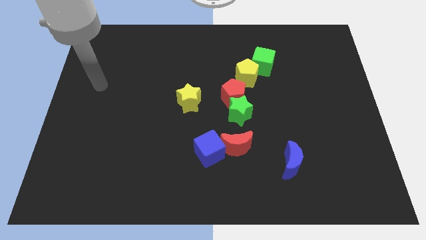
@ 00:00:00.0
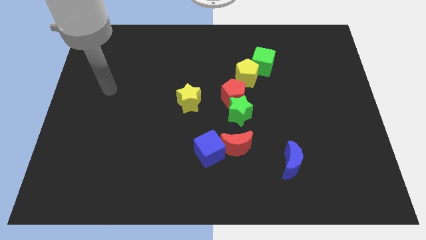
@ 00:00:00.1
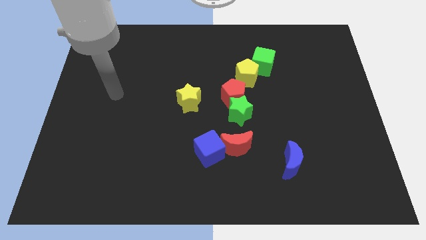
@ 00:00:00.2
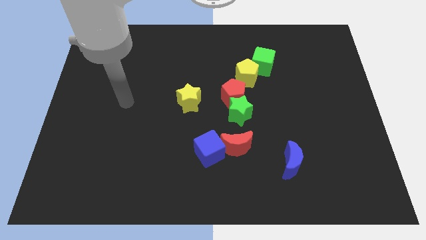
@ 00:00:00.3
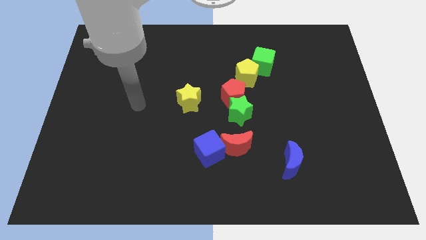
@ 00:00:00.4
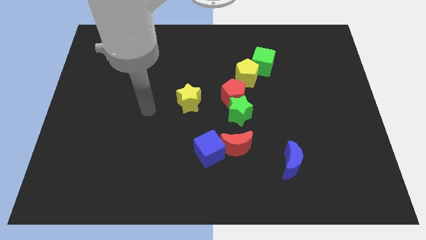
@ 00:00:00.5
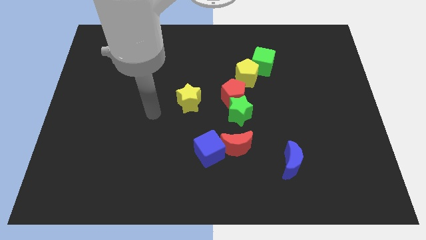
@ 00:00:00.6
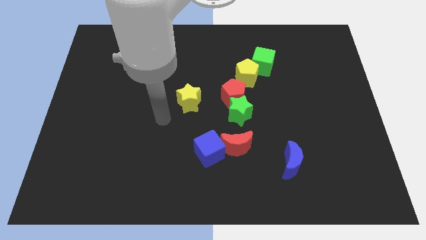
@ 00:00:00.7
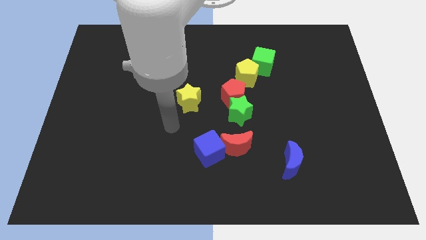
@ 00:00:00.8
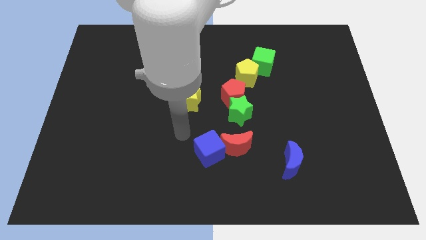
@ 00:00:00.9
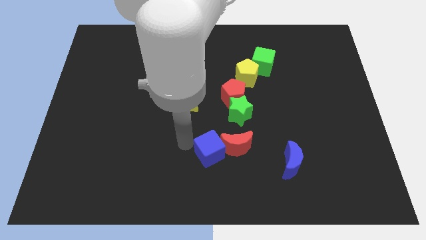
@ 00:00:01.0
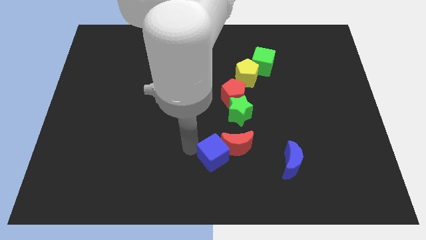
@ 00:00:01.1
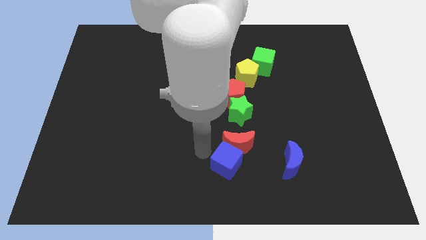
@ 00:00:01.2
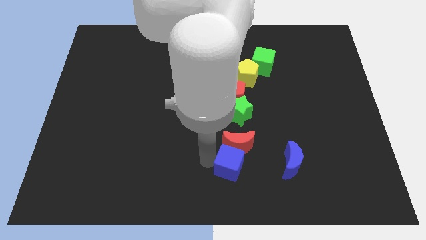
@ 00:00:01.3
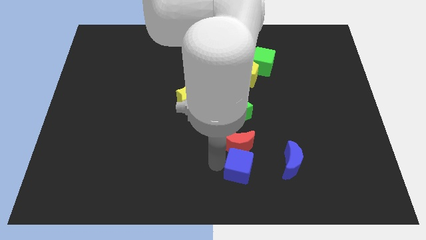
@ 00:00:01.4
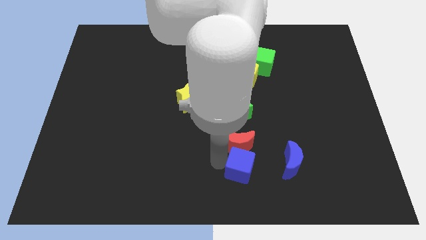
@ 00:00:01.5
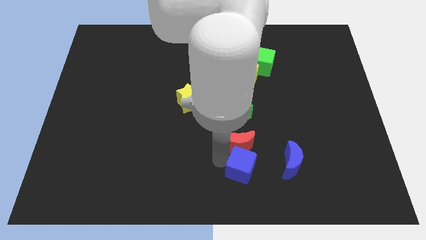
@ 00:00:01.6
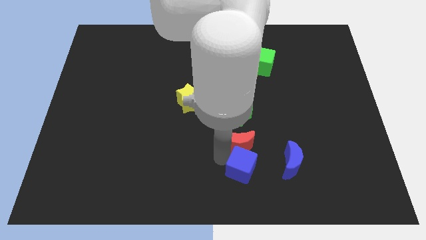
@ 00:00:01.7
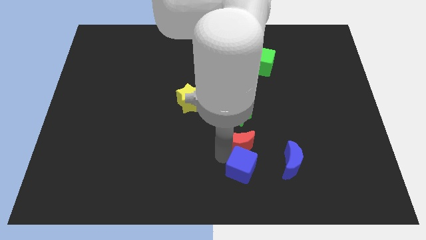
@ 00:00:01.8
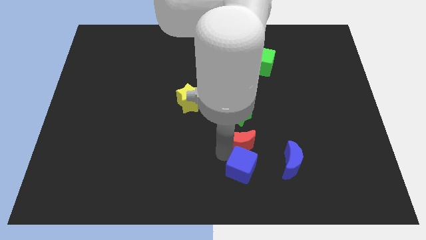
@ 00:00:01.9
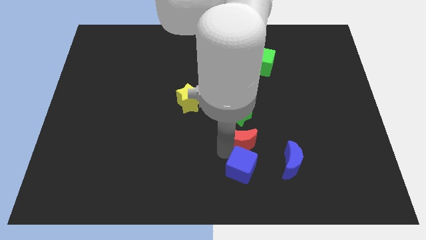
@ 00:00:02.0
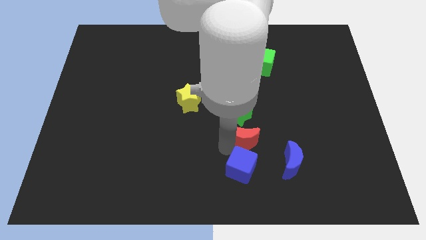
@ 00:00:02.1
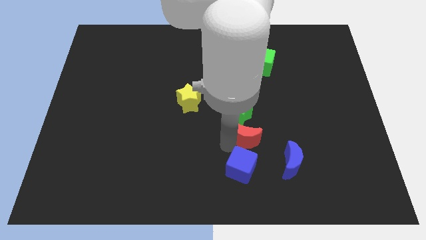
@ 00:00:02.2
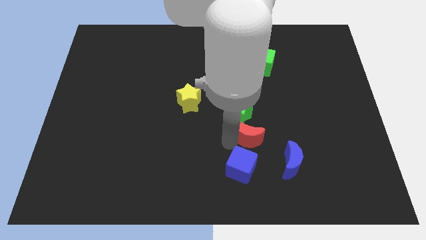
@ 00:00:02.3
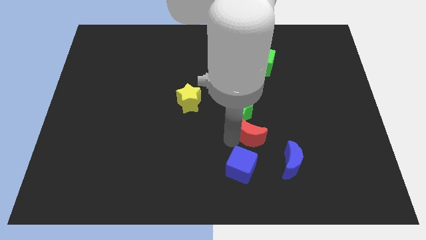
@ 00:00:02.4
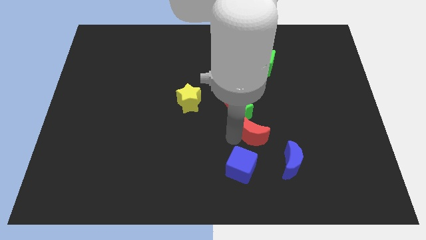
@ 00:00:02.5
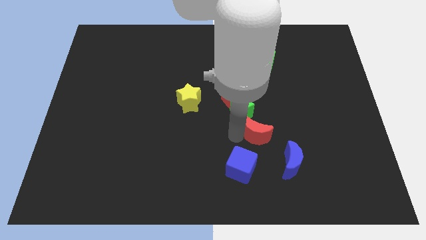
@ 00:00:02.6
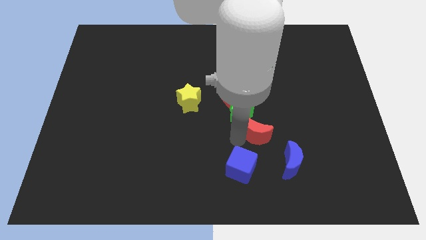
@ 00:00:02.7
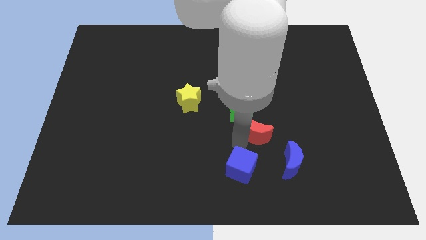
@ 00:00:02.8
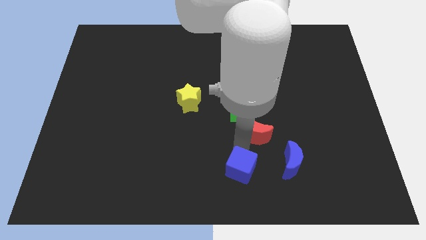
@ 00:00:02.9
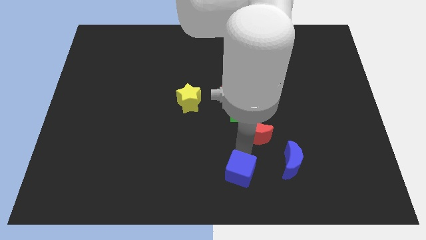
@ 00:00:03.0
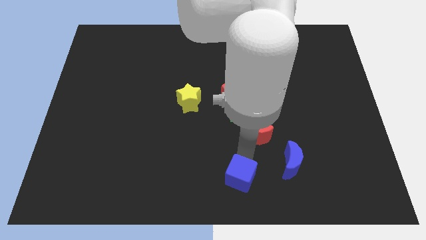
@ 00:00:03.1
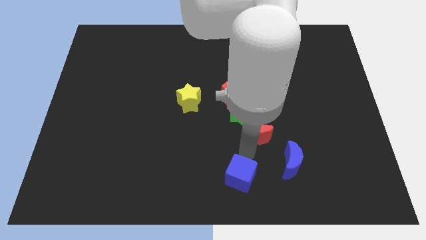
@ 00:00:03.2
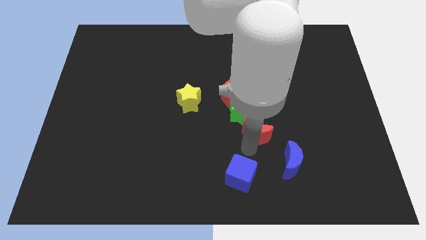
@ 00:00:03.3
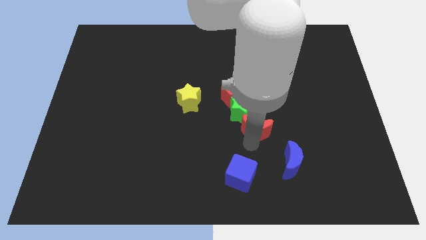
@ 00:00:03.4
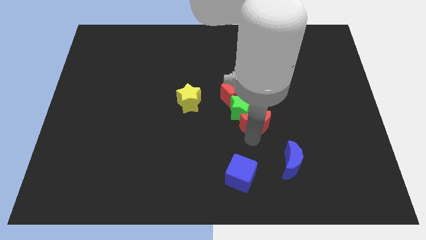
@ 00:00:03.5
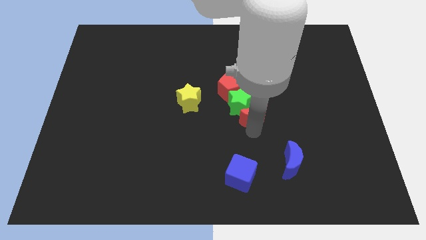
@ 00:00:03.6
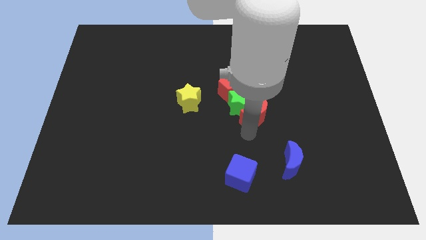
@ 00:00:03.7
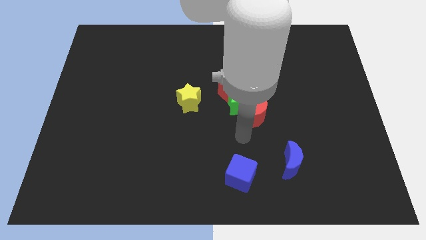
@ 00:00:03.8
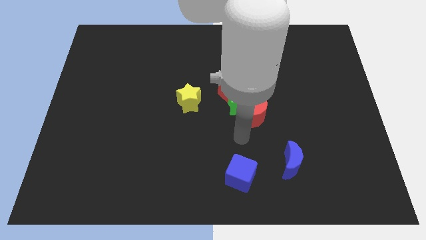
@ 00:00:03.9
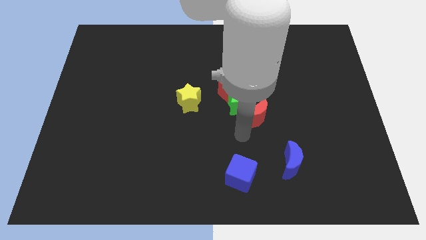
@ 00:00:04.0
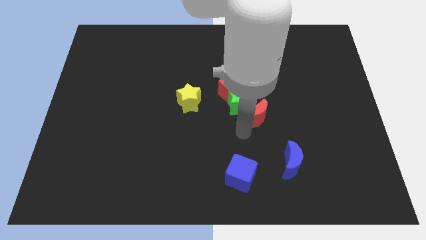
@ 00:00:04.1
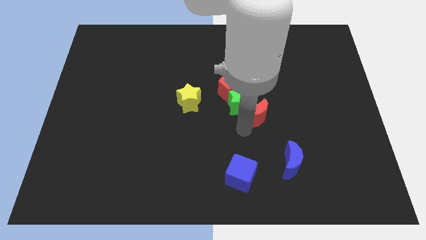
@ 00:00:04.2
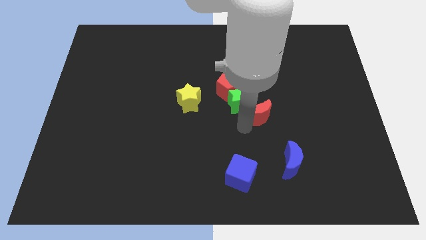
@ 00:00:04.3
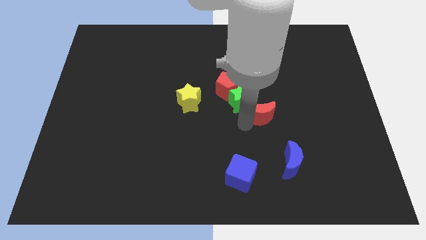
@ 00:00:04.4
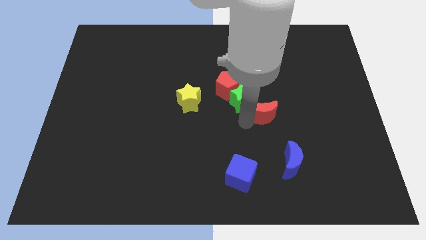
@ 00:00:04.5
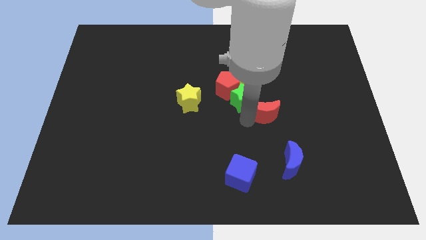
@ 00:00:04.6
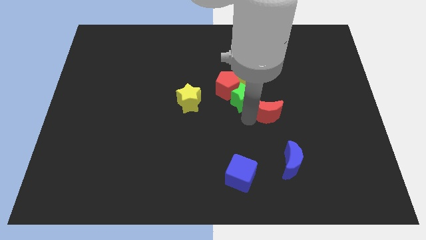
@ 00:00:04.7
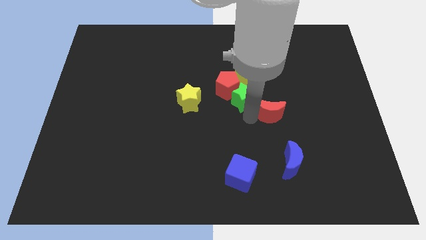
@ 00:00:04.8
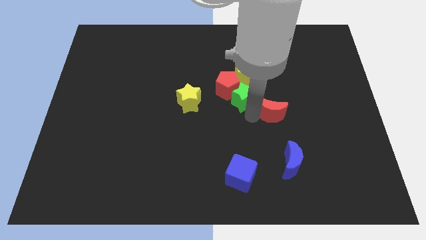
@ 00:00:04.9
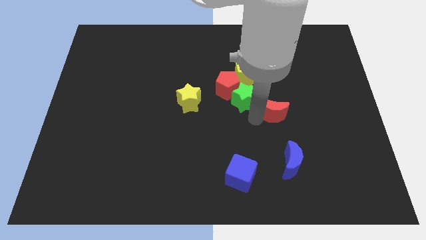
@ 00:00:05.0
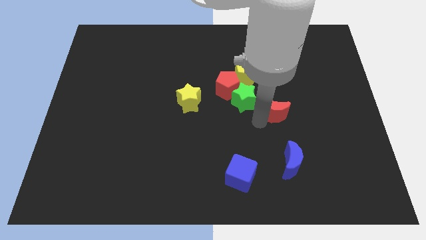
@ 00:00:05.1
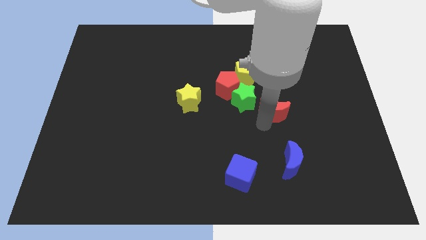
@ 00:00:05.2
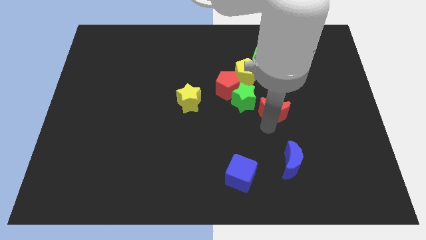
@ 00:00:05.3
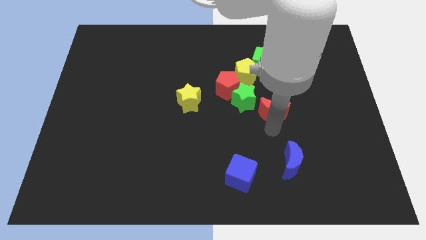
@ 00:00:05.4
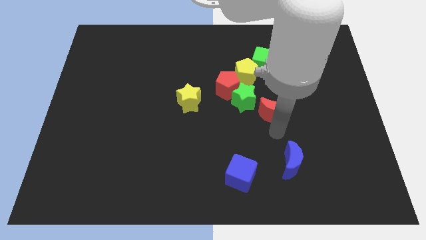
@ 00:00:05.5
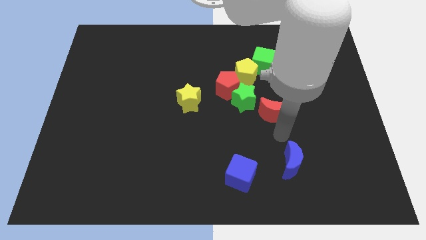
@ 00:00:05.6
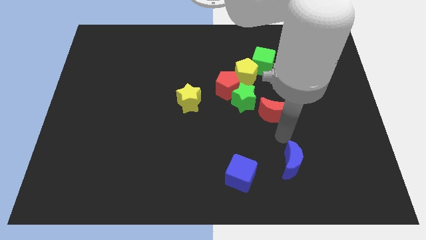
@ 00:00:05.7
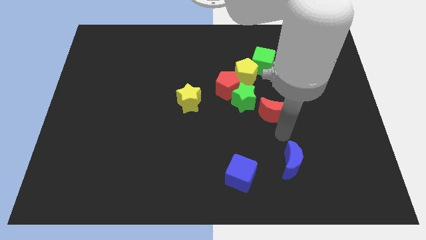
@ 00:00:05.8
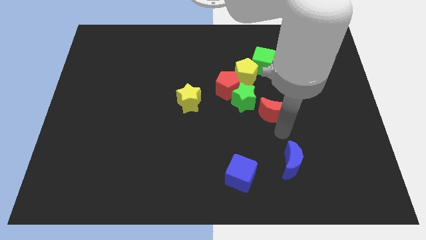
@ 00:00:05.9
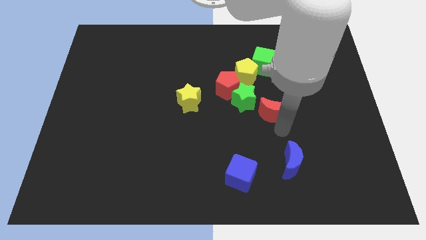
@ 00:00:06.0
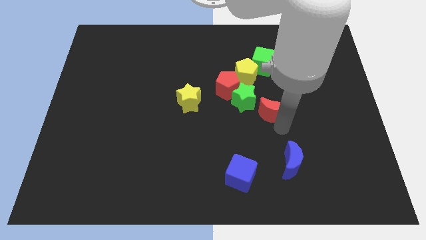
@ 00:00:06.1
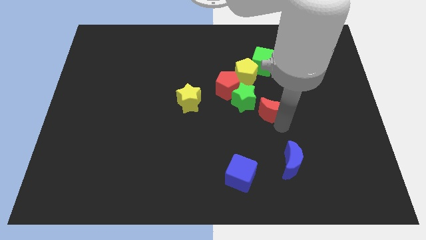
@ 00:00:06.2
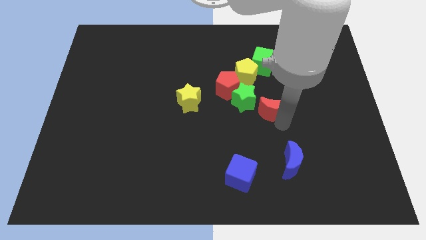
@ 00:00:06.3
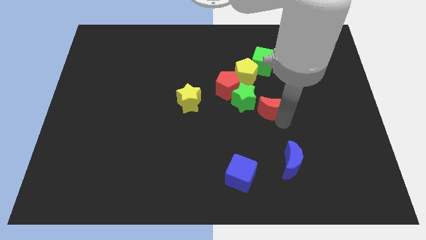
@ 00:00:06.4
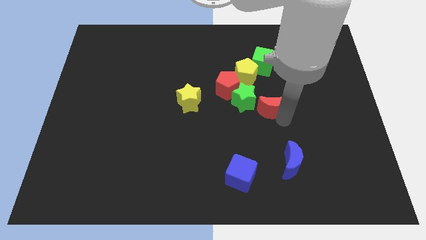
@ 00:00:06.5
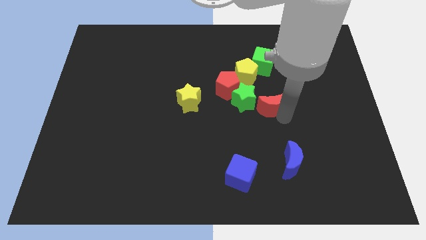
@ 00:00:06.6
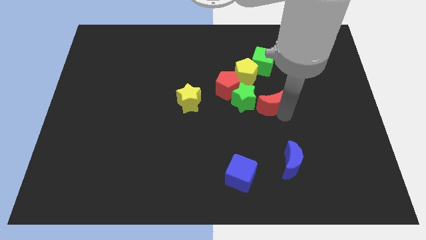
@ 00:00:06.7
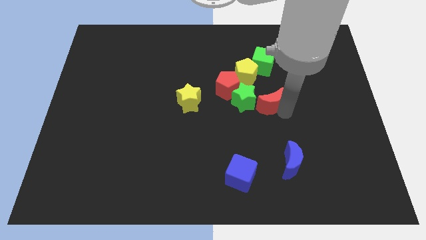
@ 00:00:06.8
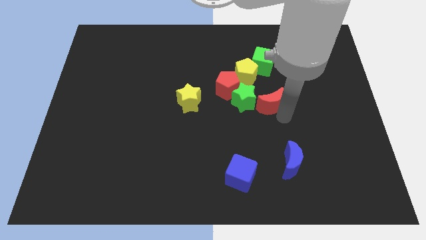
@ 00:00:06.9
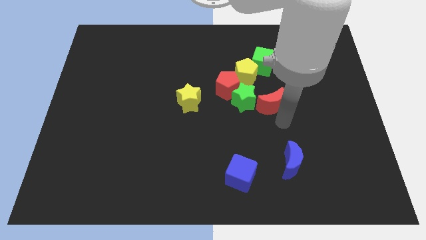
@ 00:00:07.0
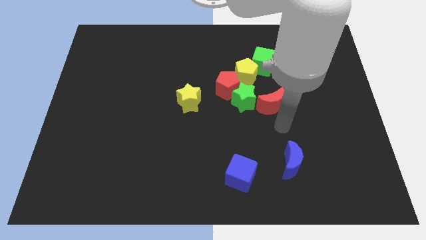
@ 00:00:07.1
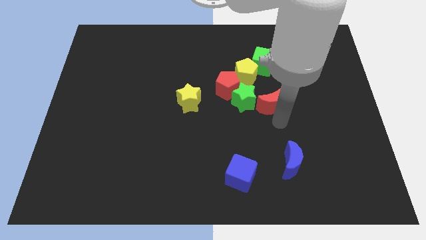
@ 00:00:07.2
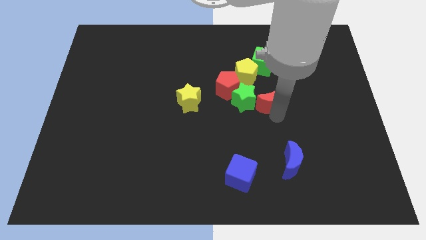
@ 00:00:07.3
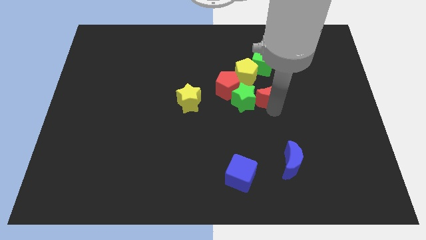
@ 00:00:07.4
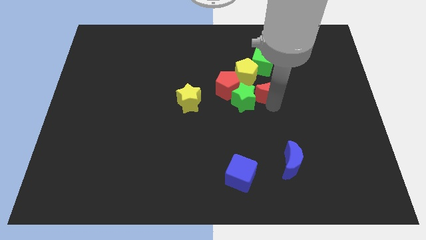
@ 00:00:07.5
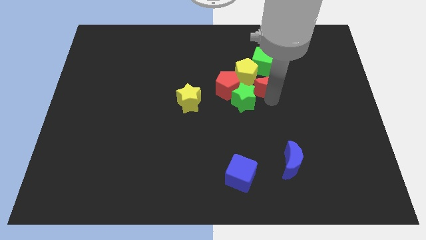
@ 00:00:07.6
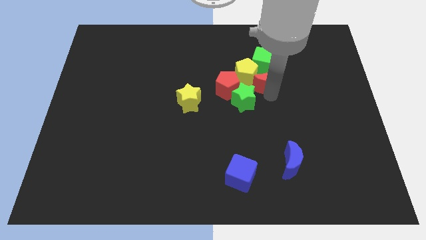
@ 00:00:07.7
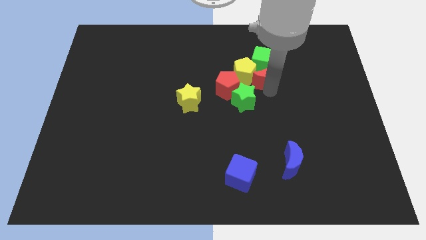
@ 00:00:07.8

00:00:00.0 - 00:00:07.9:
push the red moon next to the green cube
